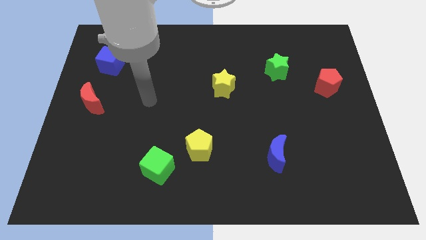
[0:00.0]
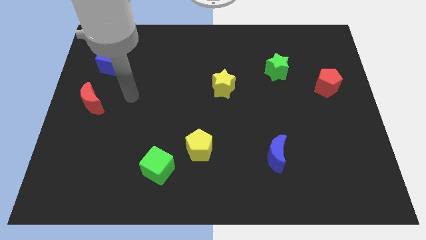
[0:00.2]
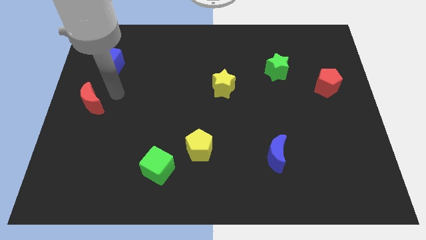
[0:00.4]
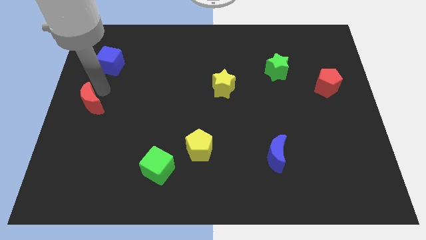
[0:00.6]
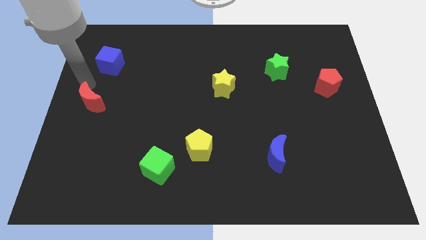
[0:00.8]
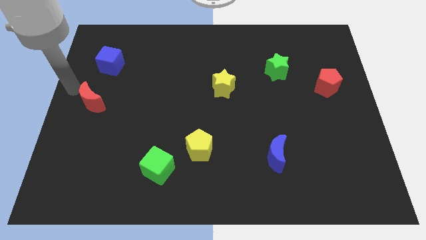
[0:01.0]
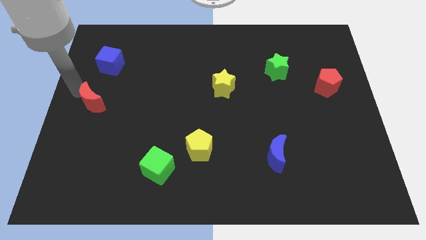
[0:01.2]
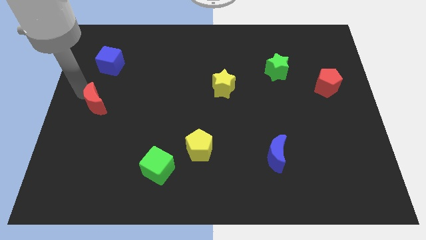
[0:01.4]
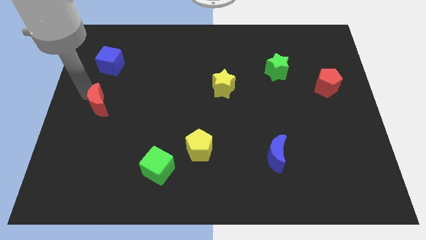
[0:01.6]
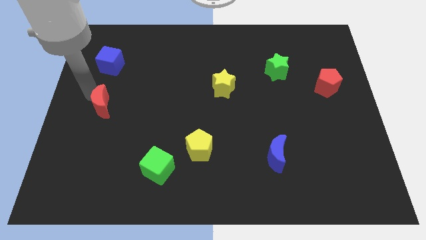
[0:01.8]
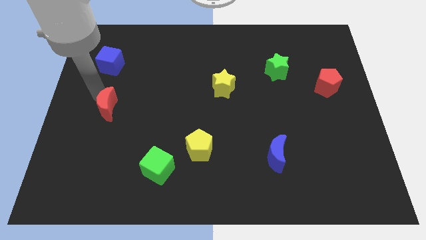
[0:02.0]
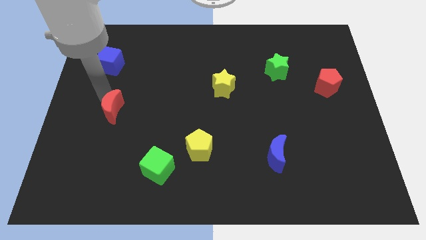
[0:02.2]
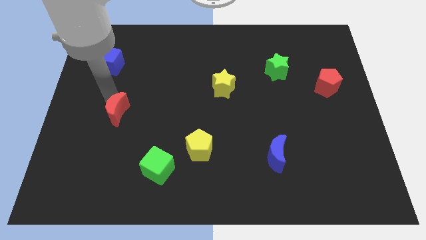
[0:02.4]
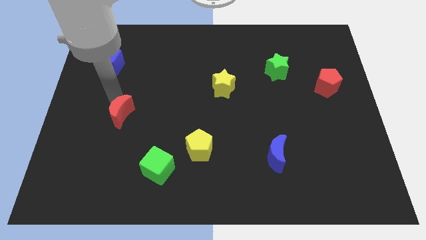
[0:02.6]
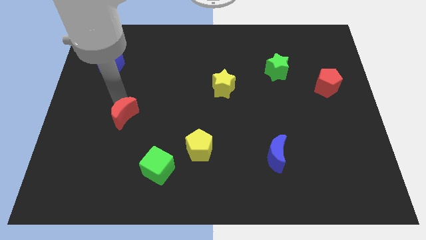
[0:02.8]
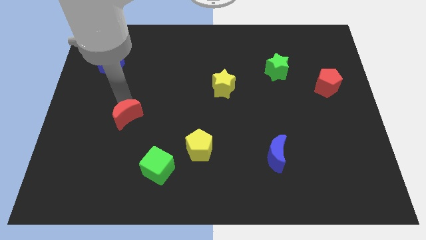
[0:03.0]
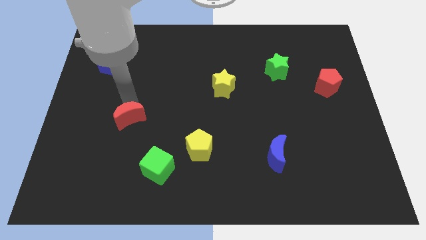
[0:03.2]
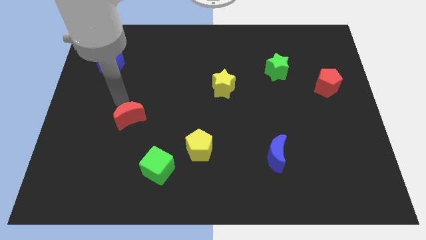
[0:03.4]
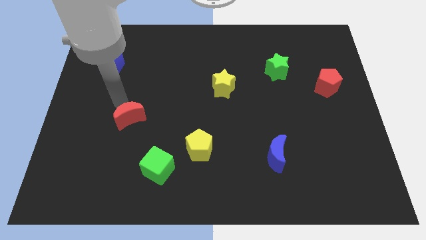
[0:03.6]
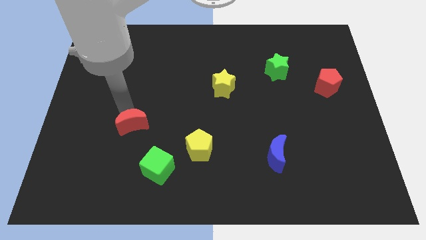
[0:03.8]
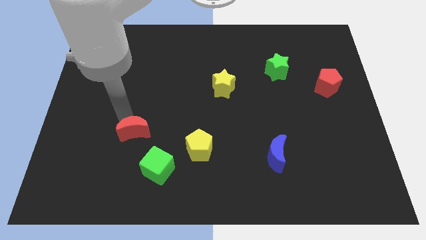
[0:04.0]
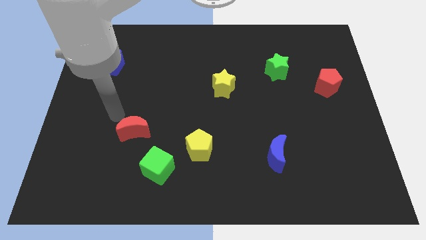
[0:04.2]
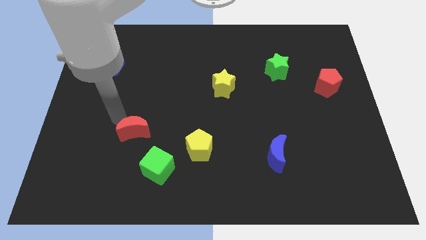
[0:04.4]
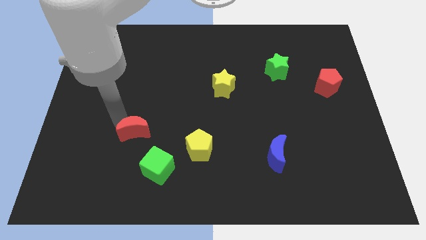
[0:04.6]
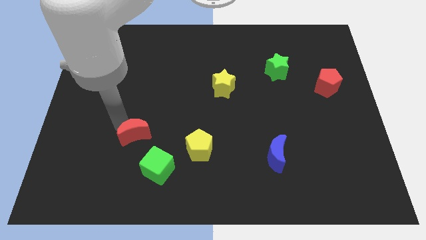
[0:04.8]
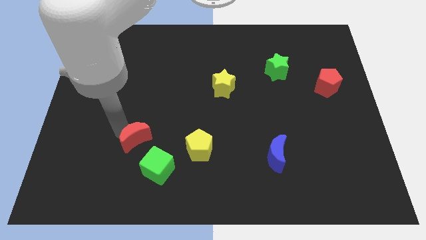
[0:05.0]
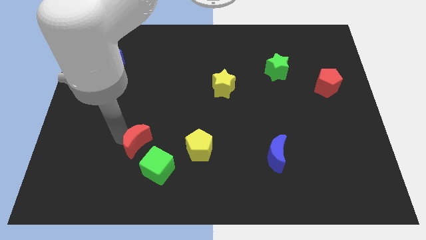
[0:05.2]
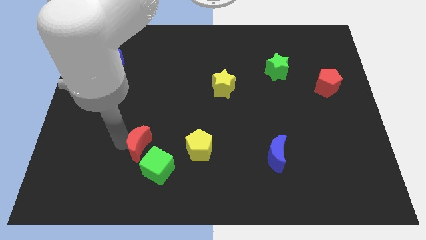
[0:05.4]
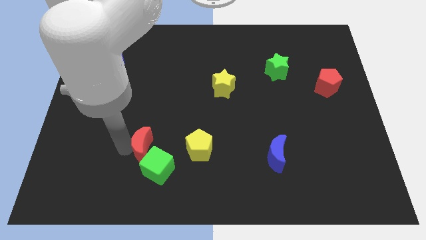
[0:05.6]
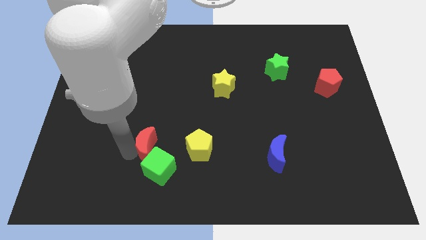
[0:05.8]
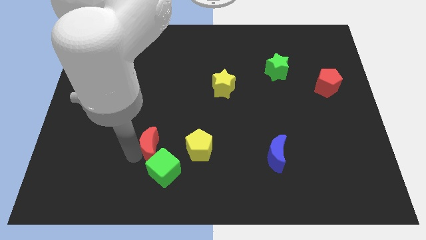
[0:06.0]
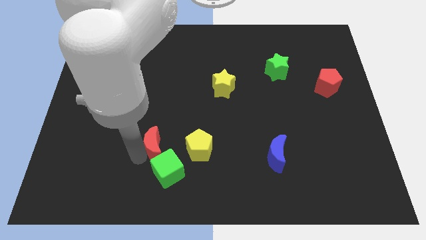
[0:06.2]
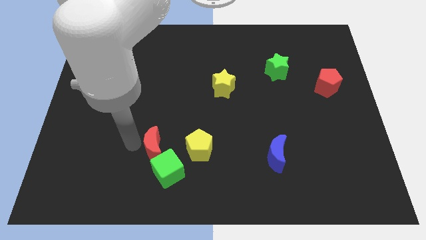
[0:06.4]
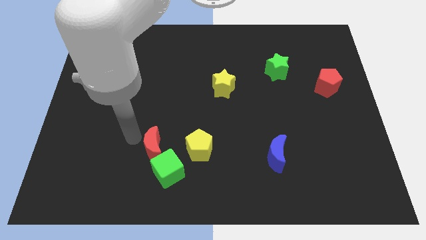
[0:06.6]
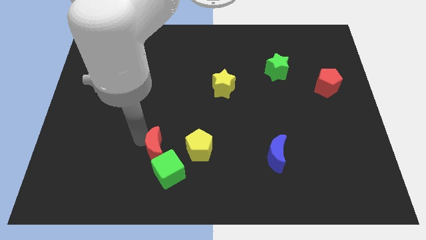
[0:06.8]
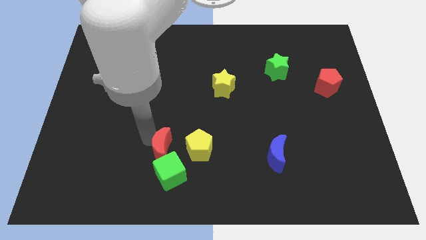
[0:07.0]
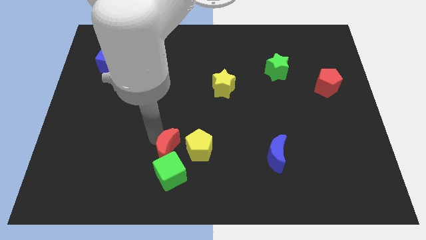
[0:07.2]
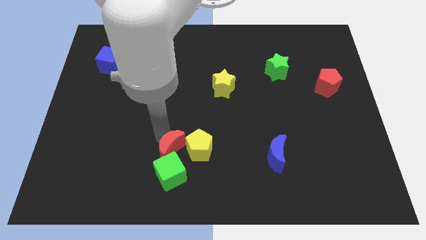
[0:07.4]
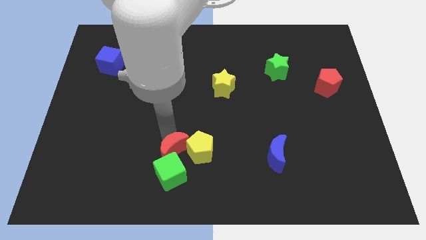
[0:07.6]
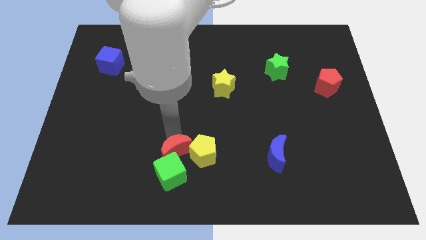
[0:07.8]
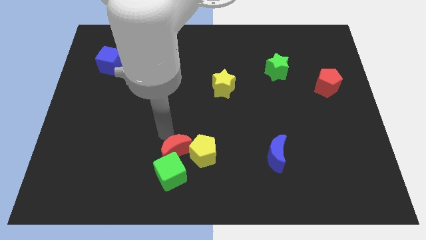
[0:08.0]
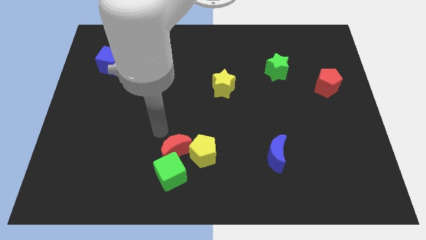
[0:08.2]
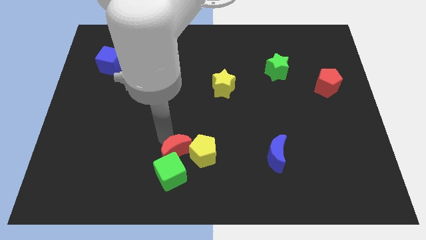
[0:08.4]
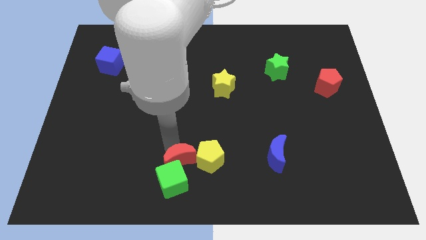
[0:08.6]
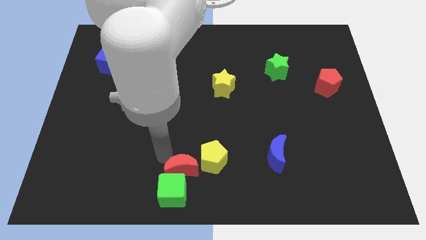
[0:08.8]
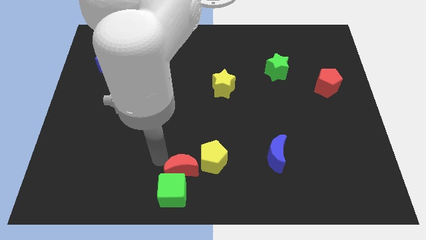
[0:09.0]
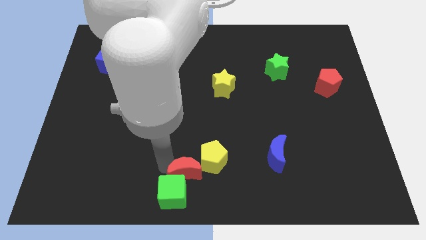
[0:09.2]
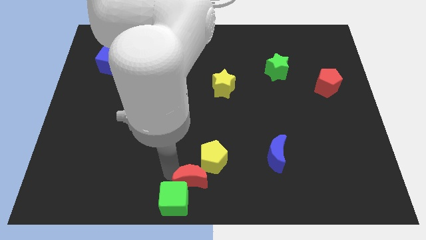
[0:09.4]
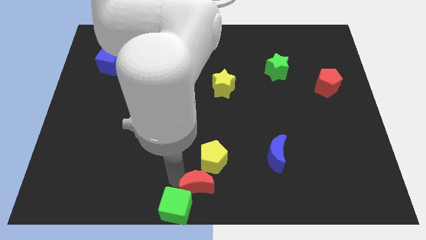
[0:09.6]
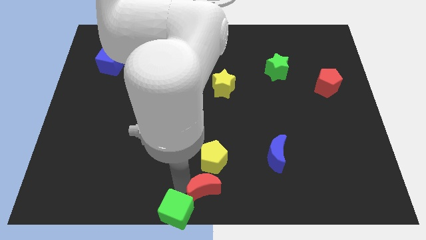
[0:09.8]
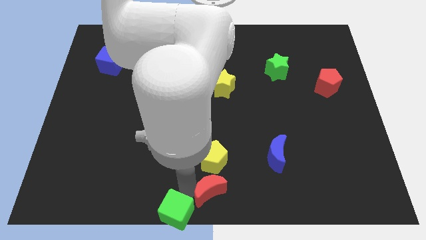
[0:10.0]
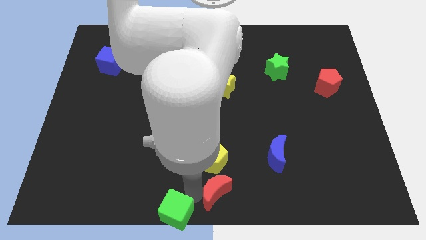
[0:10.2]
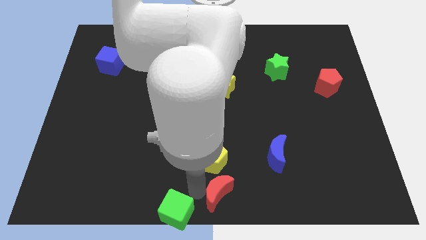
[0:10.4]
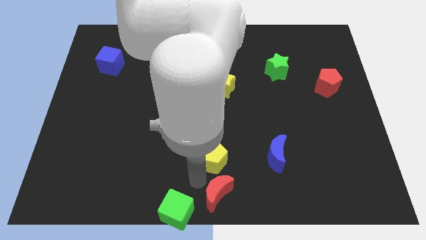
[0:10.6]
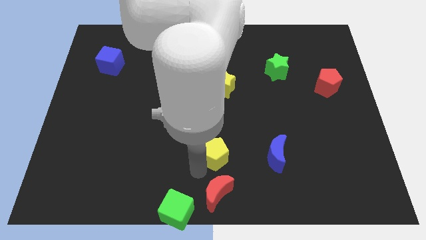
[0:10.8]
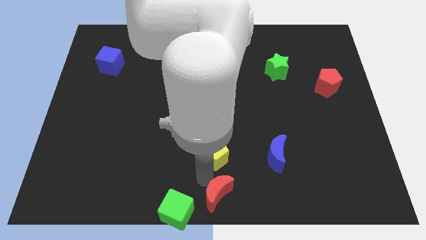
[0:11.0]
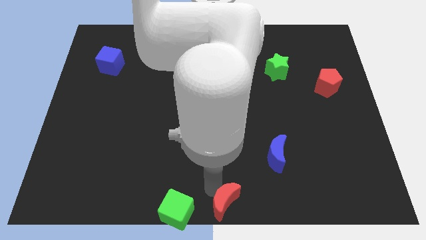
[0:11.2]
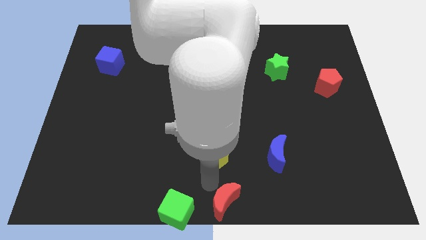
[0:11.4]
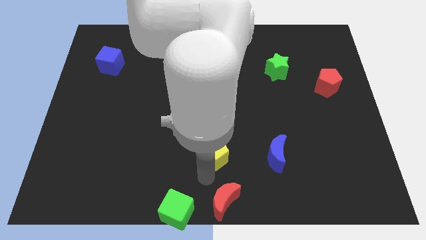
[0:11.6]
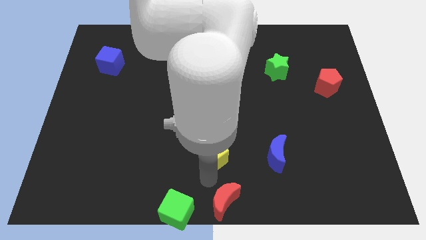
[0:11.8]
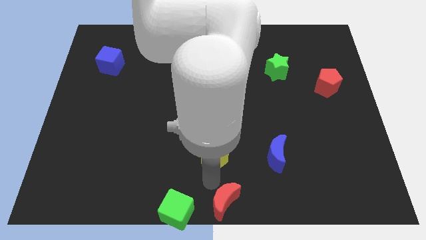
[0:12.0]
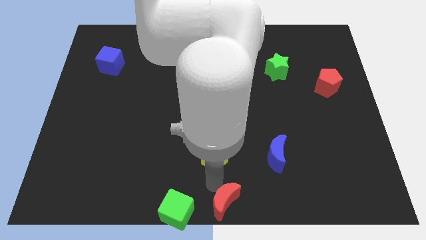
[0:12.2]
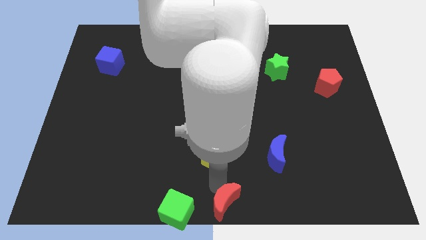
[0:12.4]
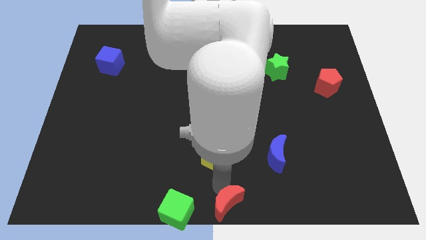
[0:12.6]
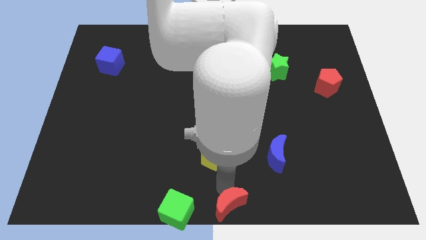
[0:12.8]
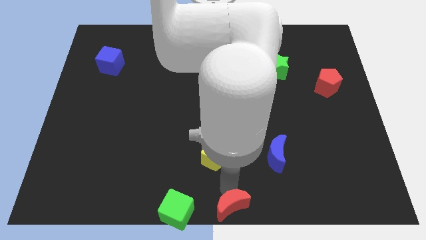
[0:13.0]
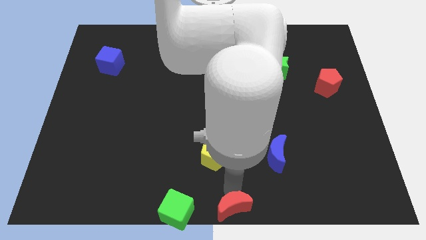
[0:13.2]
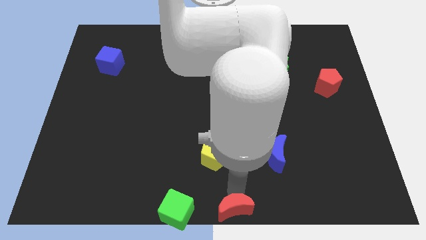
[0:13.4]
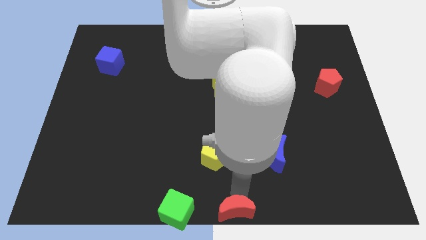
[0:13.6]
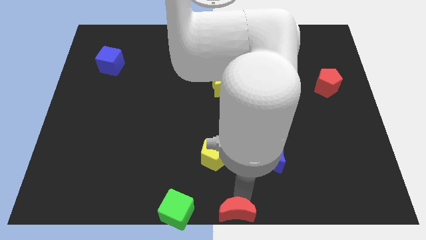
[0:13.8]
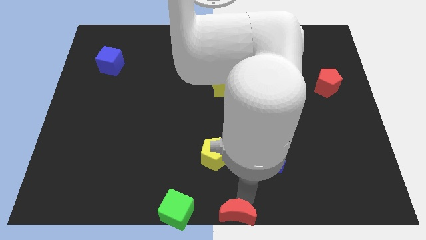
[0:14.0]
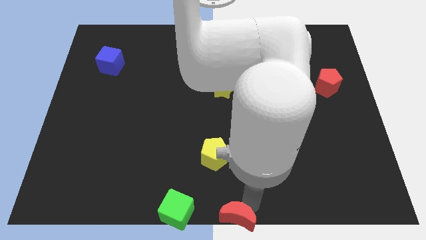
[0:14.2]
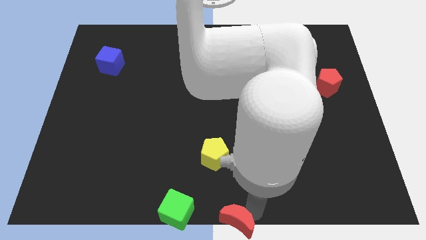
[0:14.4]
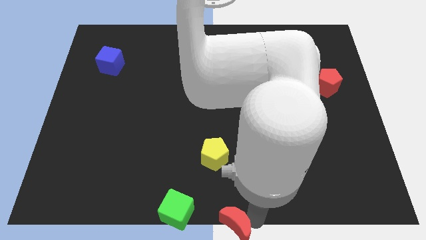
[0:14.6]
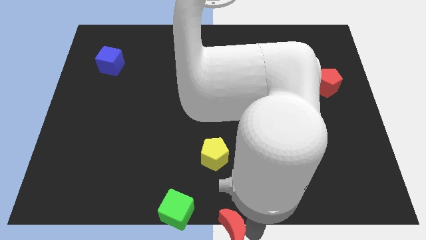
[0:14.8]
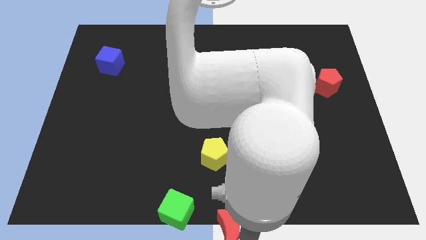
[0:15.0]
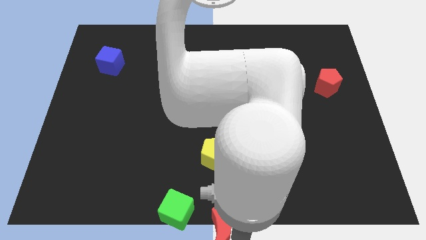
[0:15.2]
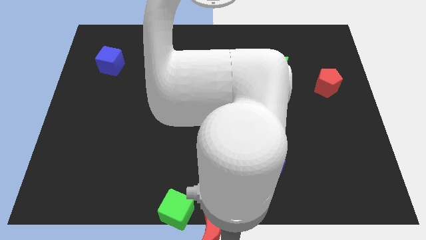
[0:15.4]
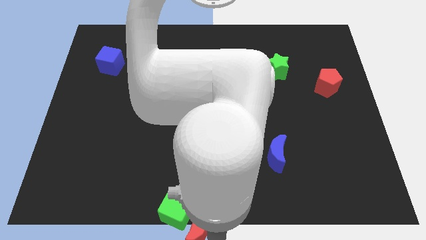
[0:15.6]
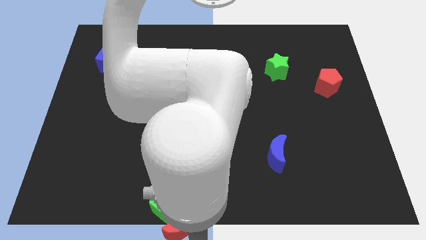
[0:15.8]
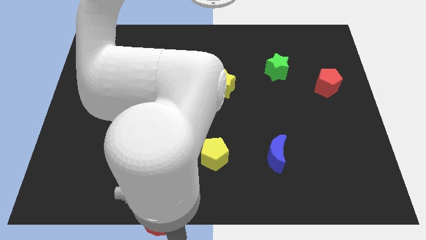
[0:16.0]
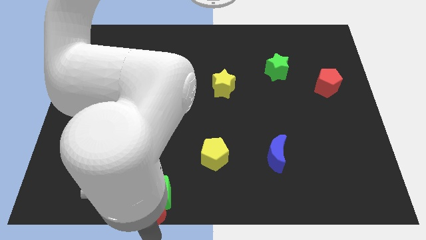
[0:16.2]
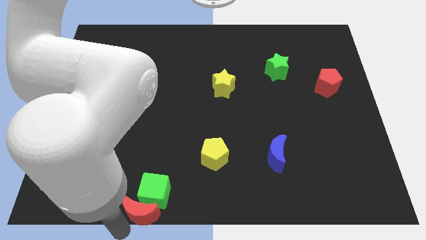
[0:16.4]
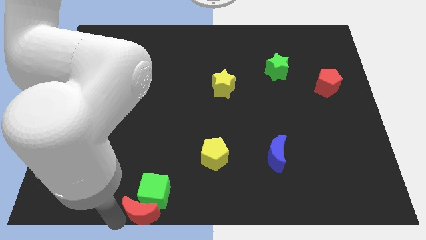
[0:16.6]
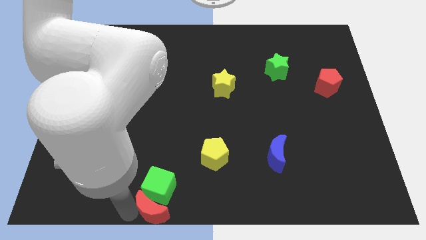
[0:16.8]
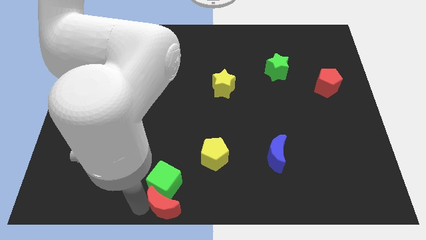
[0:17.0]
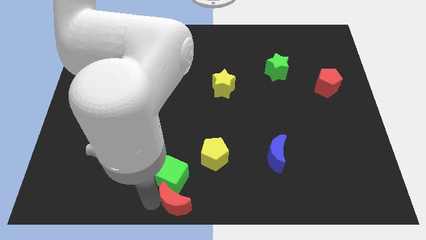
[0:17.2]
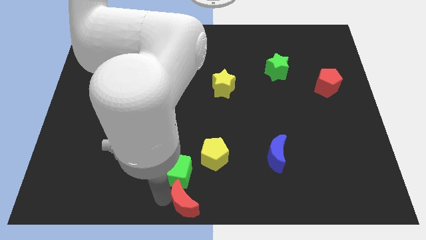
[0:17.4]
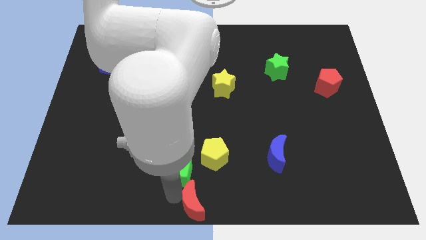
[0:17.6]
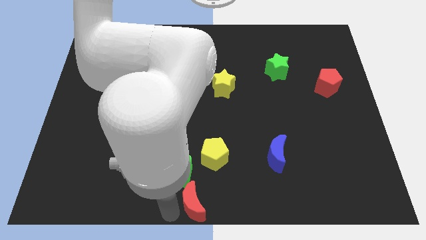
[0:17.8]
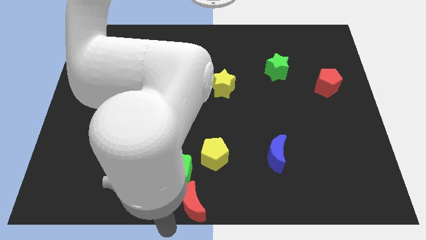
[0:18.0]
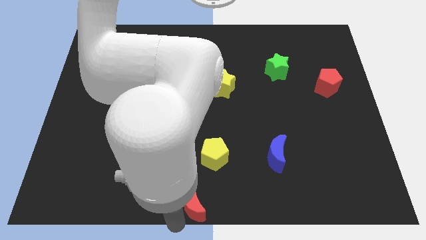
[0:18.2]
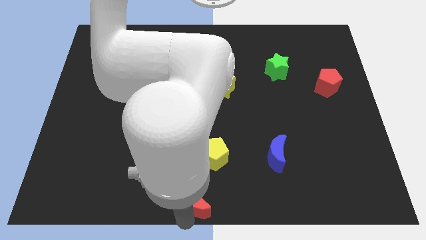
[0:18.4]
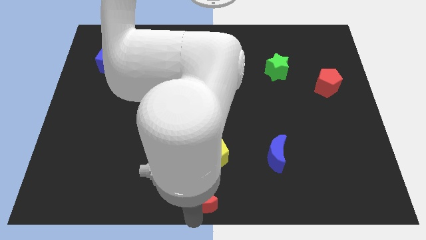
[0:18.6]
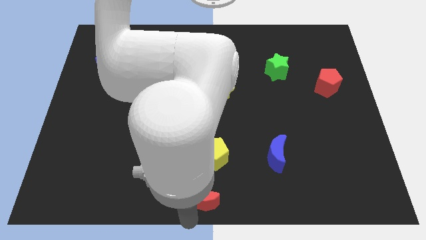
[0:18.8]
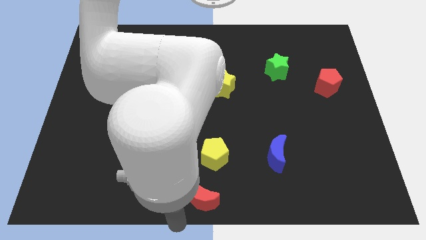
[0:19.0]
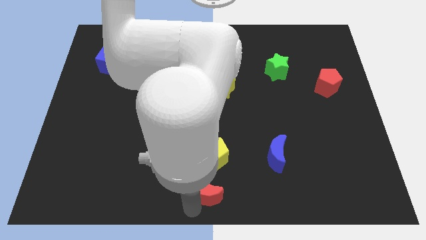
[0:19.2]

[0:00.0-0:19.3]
push the red moon to the right of the green cube
